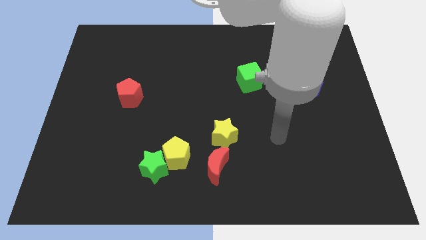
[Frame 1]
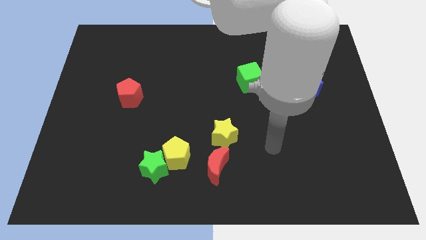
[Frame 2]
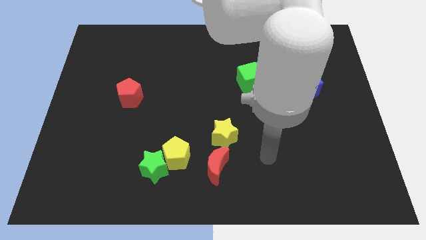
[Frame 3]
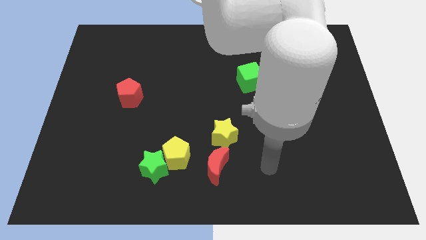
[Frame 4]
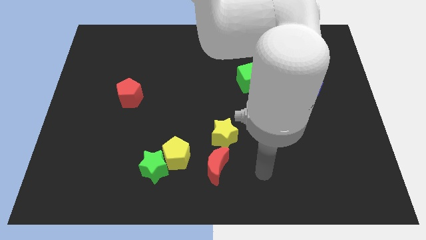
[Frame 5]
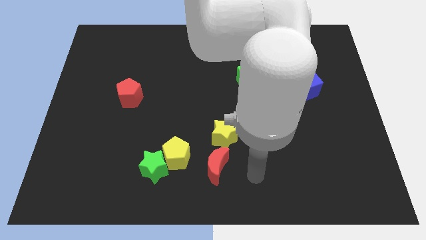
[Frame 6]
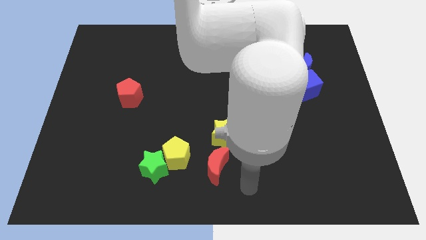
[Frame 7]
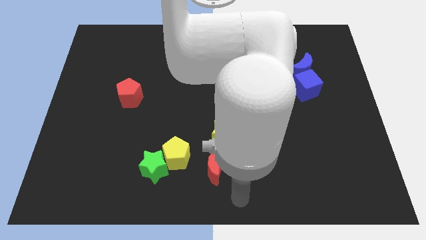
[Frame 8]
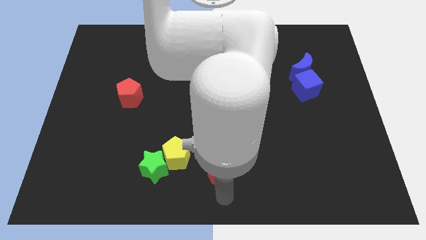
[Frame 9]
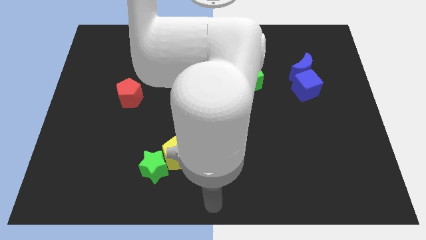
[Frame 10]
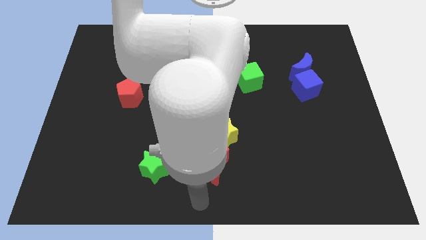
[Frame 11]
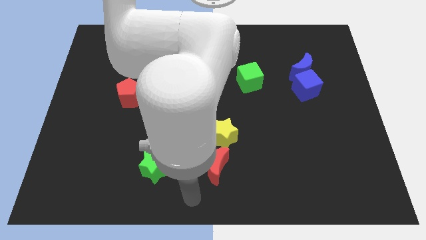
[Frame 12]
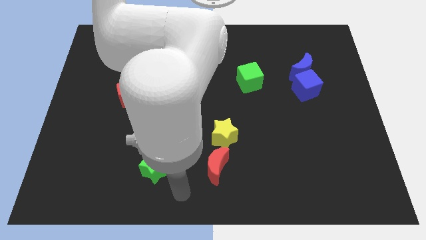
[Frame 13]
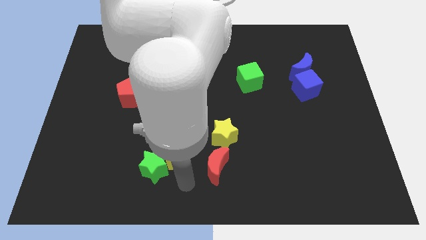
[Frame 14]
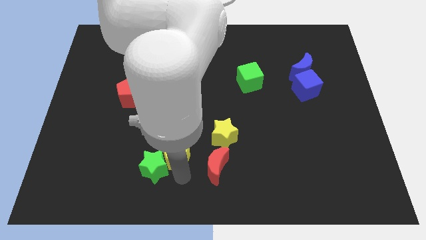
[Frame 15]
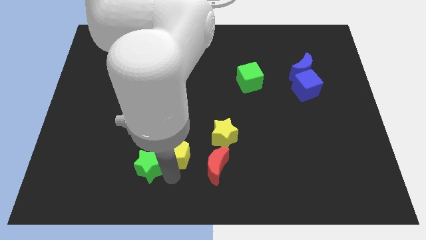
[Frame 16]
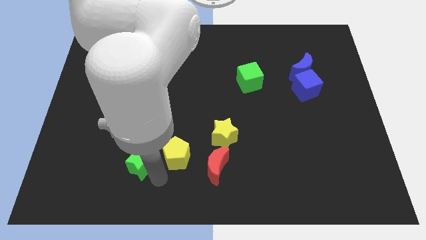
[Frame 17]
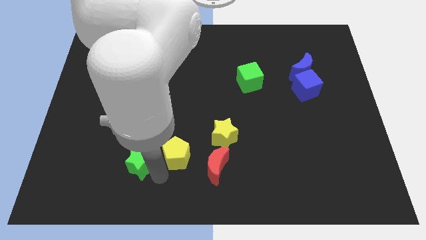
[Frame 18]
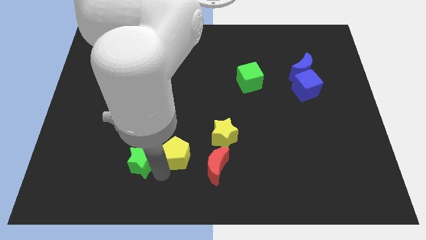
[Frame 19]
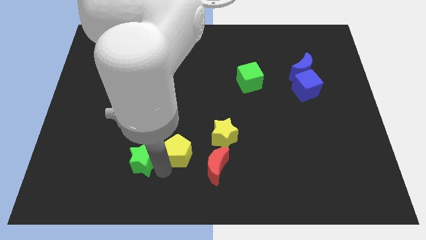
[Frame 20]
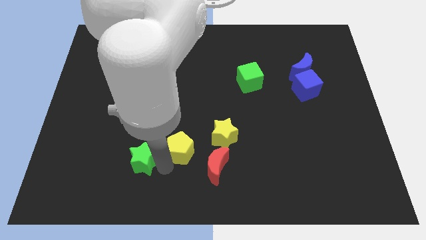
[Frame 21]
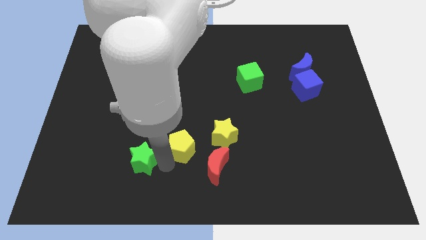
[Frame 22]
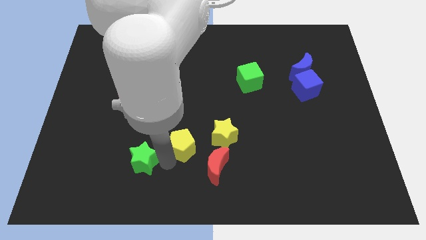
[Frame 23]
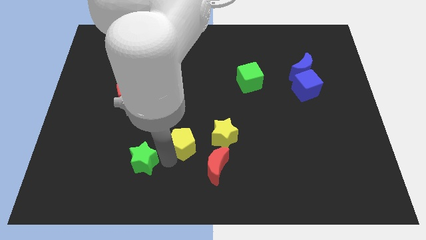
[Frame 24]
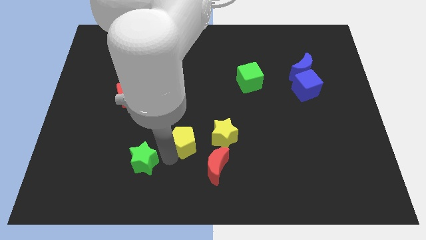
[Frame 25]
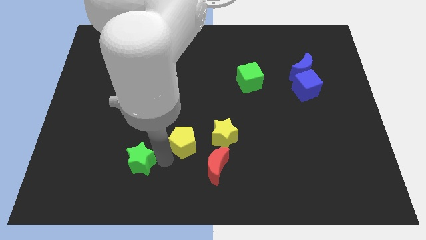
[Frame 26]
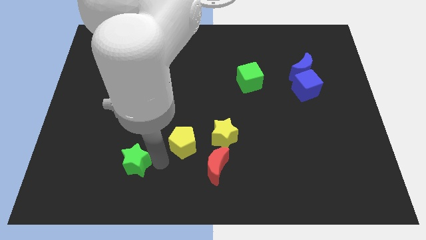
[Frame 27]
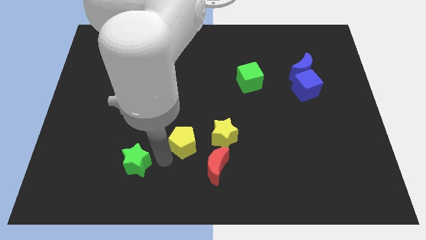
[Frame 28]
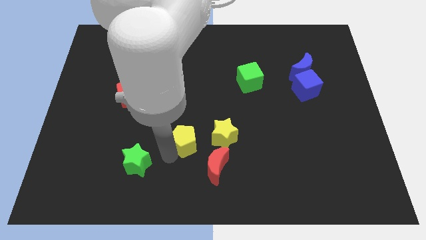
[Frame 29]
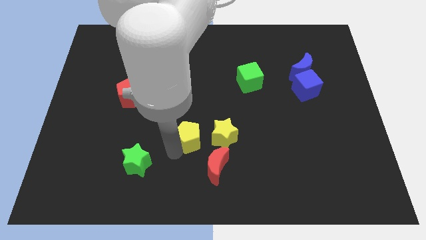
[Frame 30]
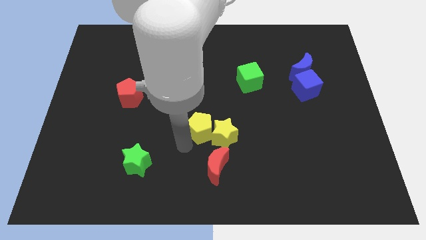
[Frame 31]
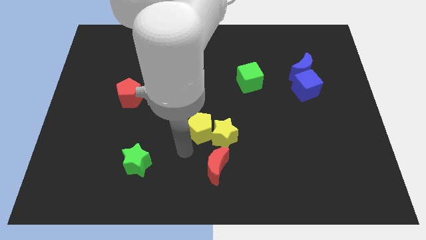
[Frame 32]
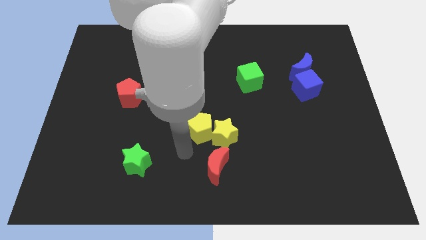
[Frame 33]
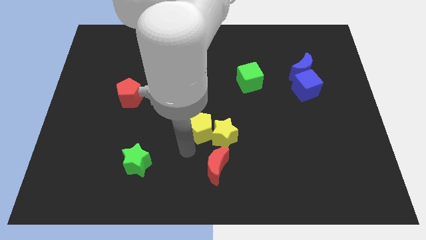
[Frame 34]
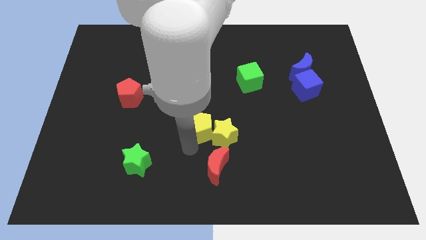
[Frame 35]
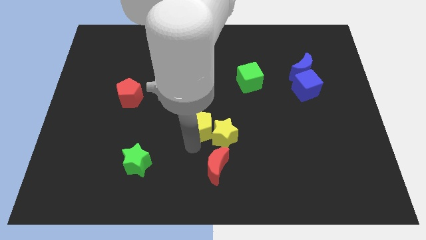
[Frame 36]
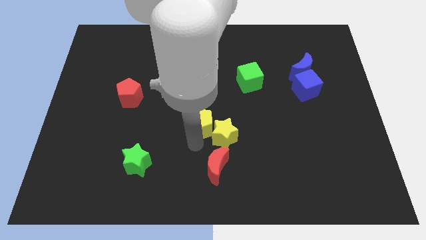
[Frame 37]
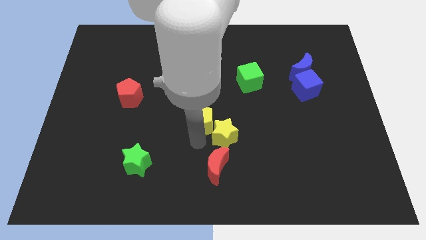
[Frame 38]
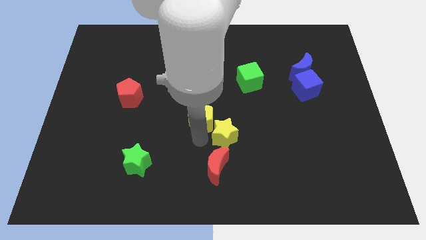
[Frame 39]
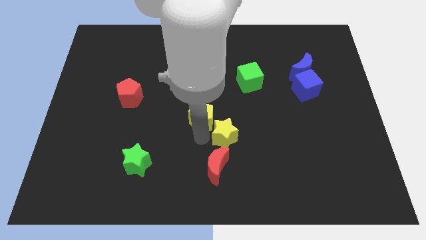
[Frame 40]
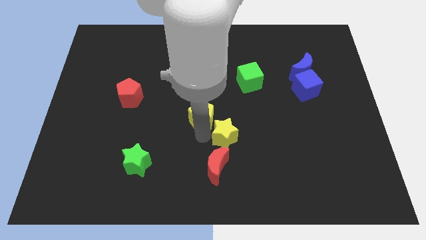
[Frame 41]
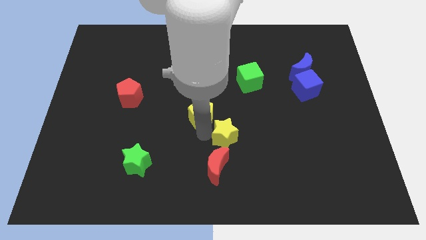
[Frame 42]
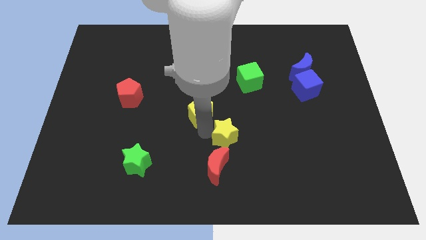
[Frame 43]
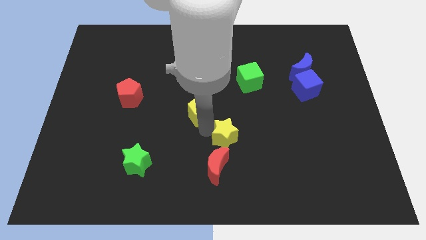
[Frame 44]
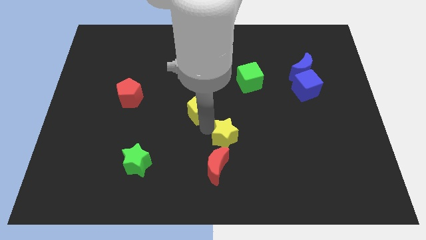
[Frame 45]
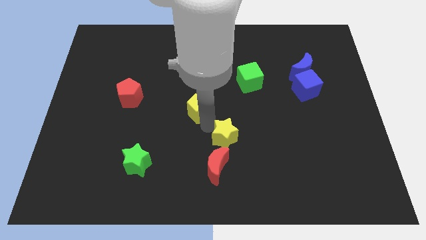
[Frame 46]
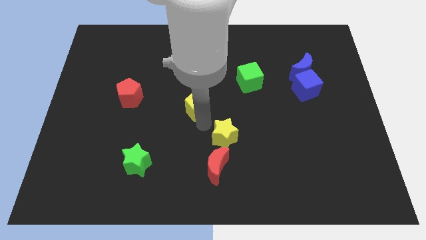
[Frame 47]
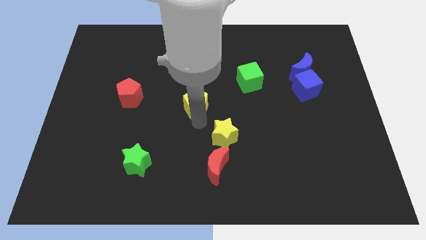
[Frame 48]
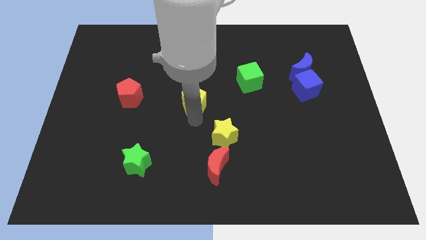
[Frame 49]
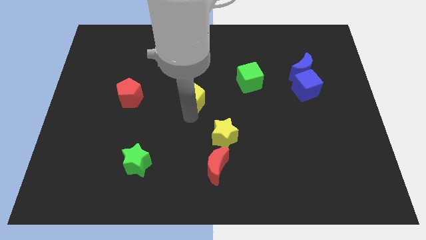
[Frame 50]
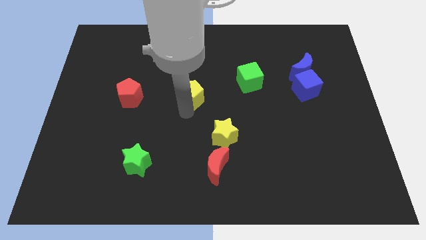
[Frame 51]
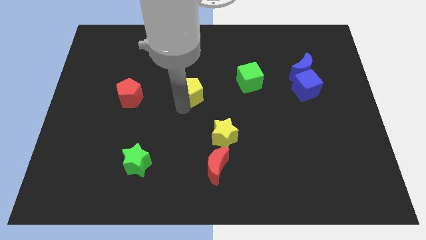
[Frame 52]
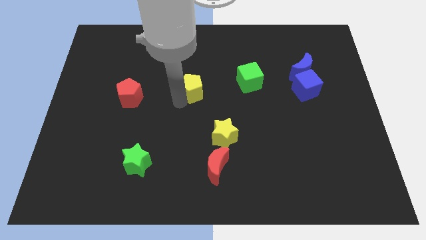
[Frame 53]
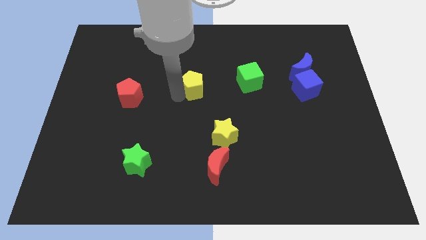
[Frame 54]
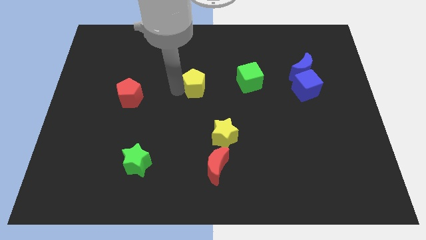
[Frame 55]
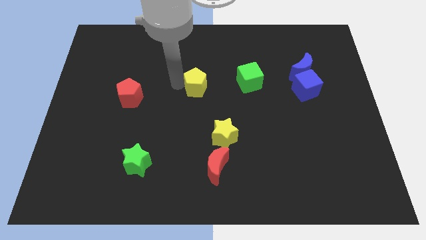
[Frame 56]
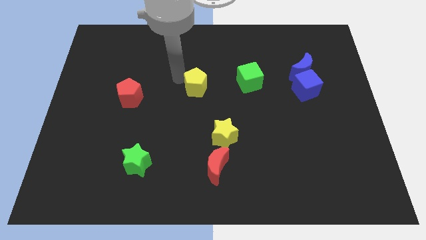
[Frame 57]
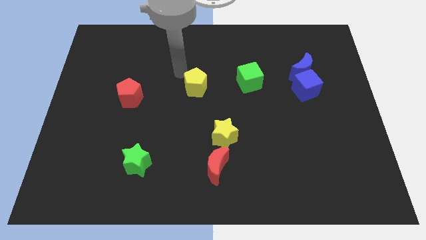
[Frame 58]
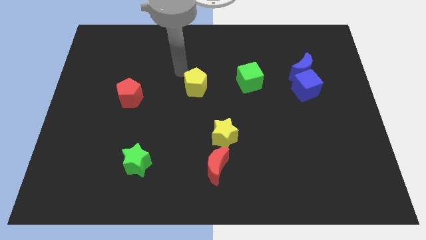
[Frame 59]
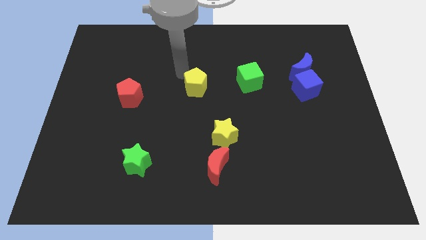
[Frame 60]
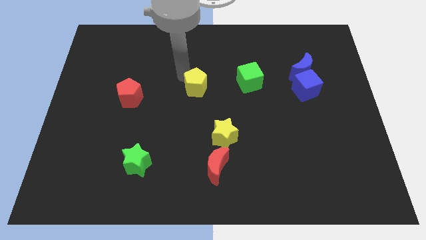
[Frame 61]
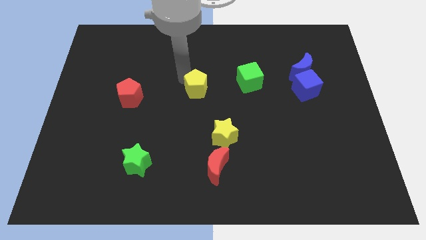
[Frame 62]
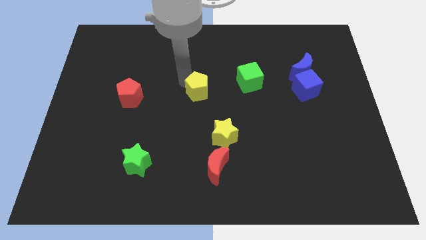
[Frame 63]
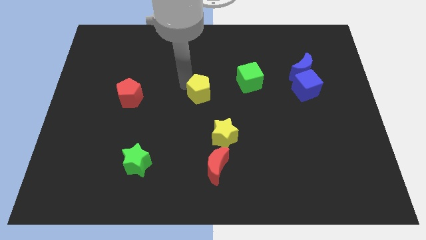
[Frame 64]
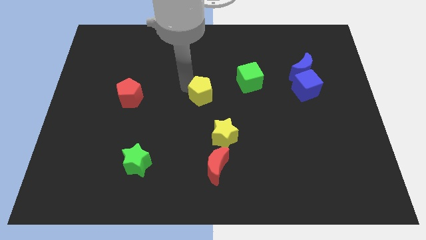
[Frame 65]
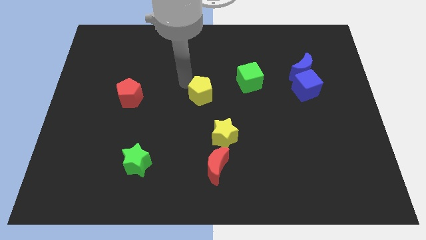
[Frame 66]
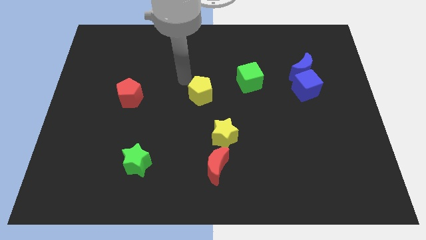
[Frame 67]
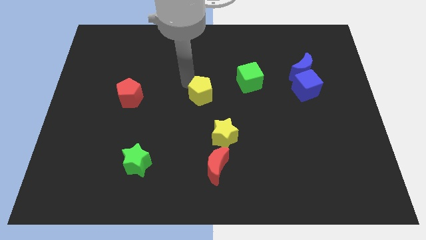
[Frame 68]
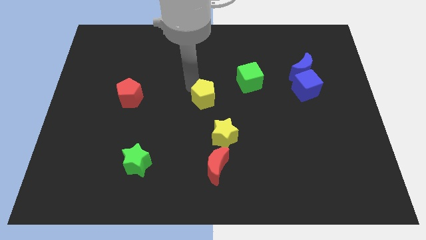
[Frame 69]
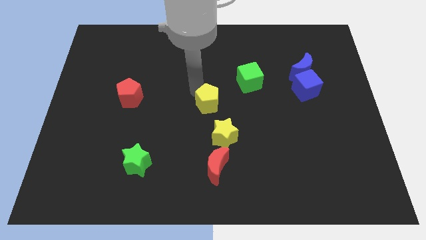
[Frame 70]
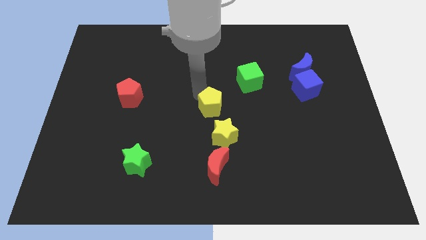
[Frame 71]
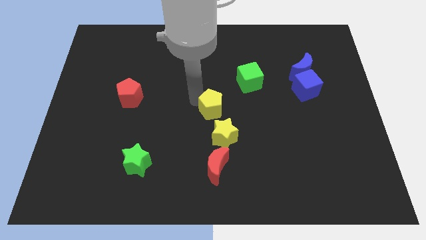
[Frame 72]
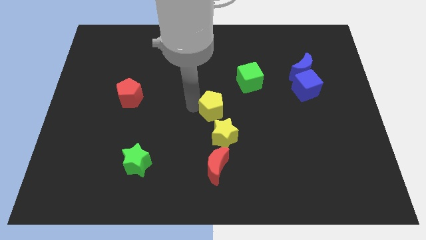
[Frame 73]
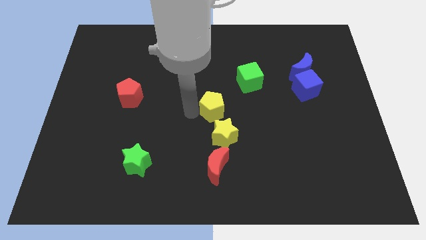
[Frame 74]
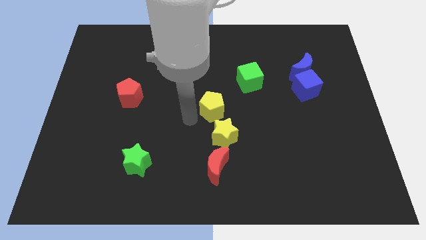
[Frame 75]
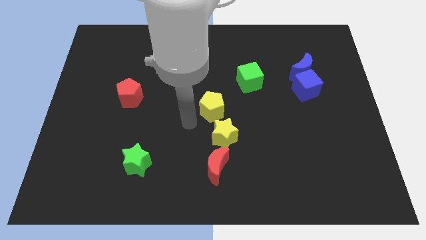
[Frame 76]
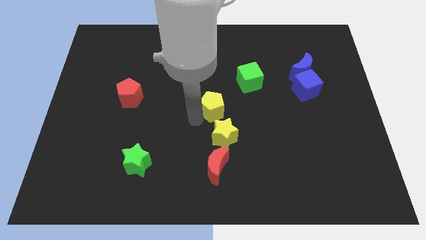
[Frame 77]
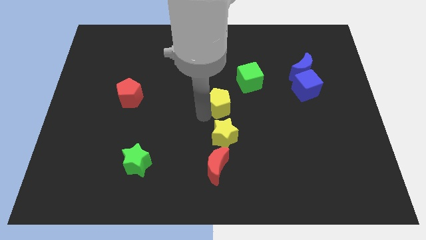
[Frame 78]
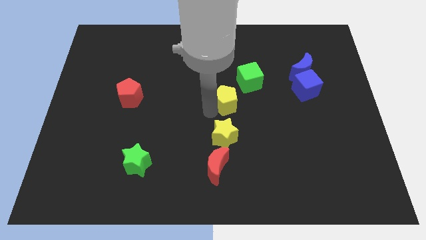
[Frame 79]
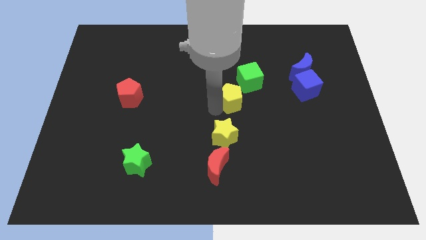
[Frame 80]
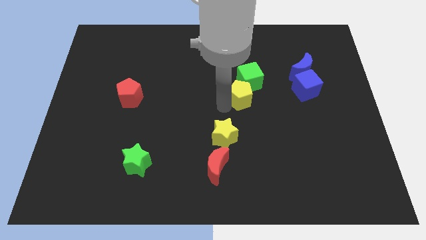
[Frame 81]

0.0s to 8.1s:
move the yellow pentagon close to the green cube
